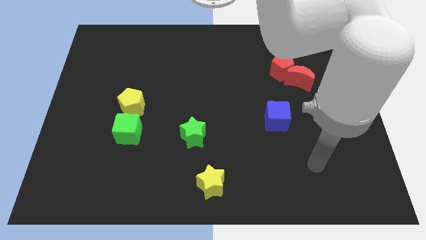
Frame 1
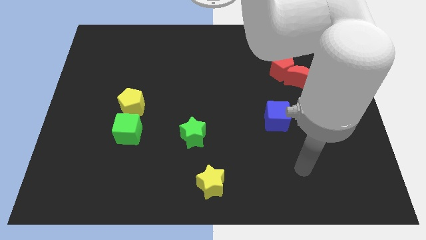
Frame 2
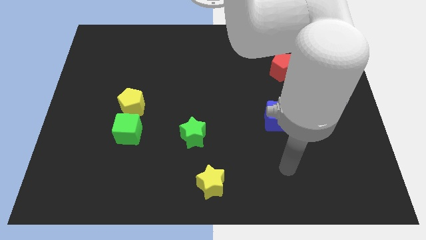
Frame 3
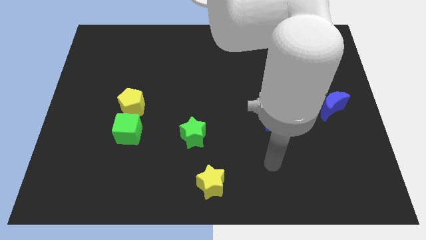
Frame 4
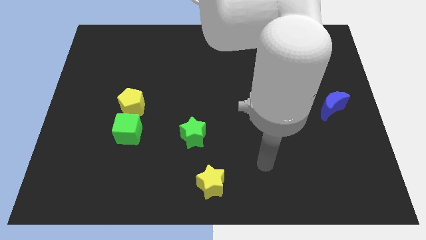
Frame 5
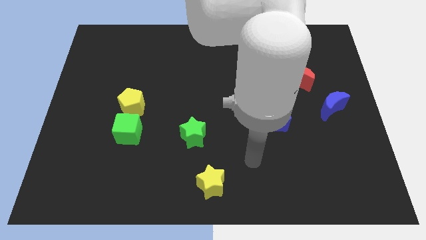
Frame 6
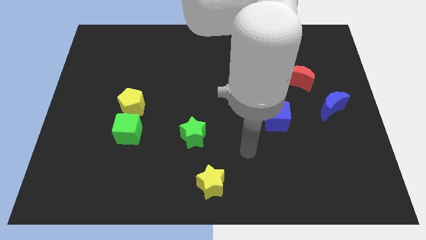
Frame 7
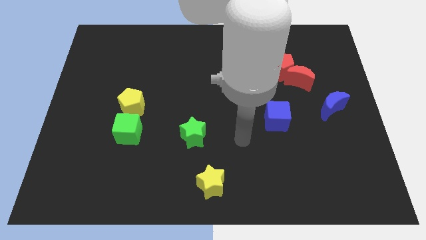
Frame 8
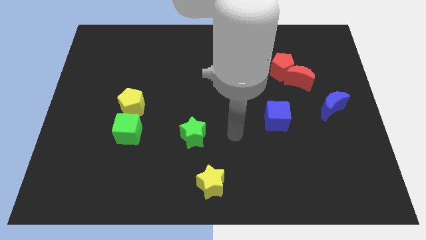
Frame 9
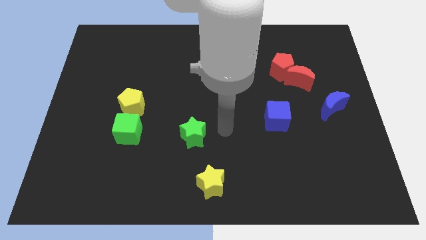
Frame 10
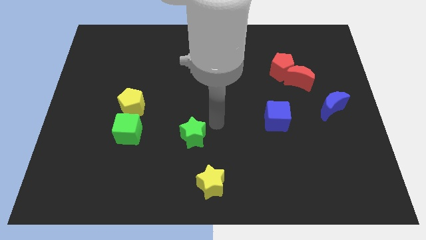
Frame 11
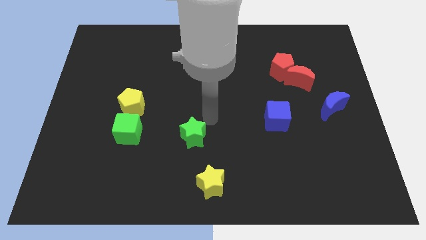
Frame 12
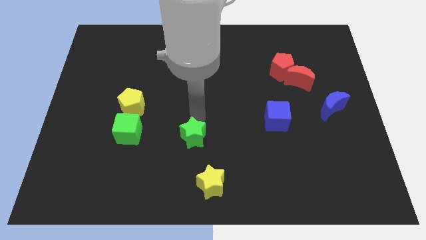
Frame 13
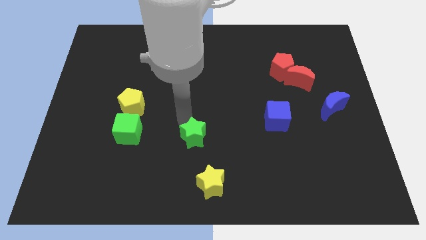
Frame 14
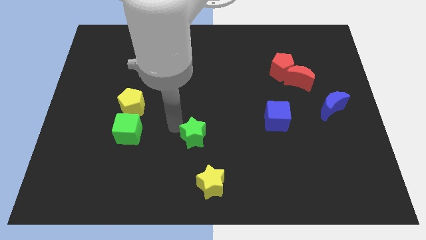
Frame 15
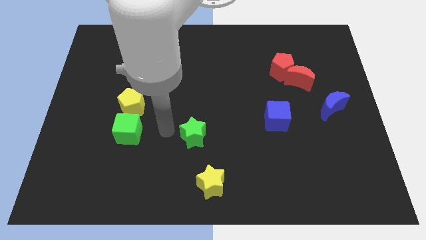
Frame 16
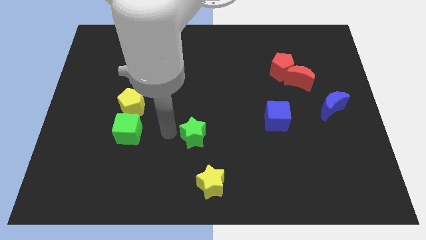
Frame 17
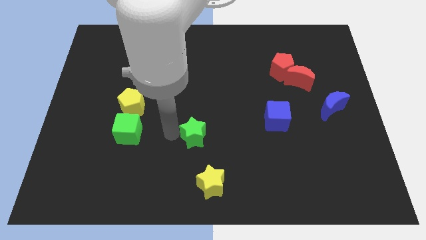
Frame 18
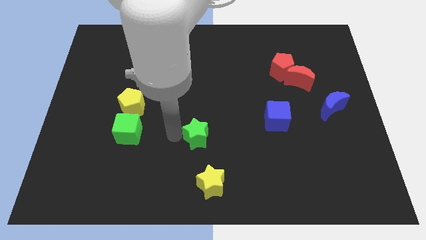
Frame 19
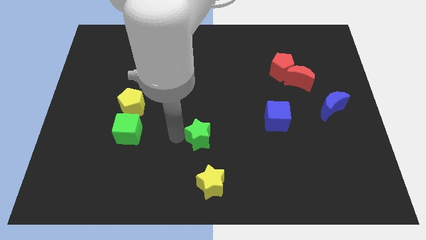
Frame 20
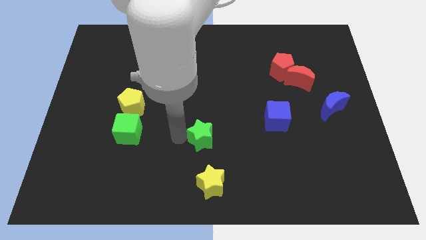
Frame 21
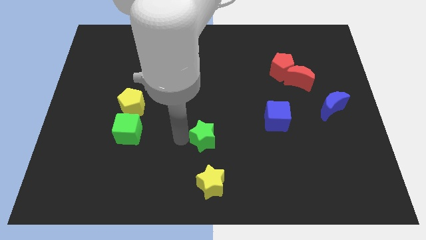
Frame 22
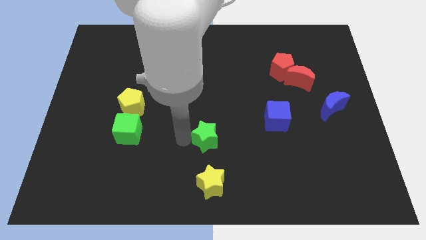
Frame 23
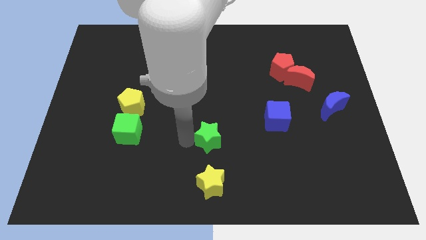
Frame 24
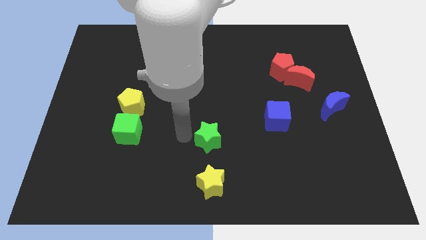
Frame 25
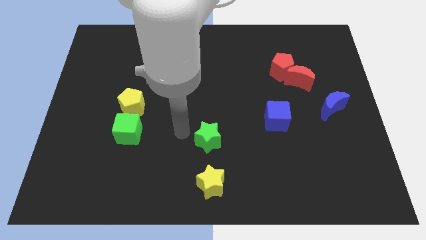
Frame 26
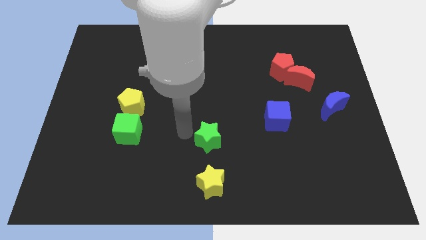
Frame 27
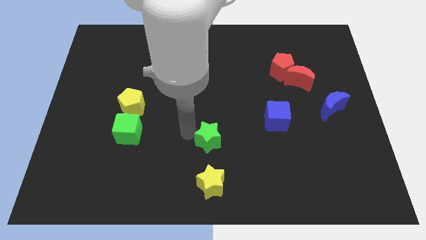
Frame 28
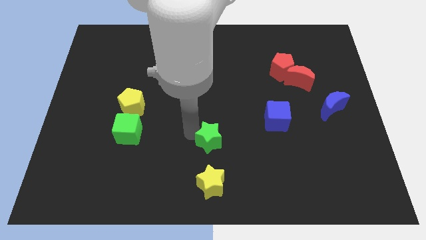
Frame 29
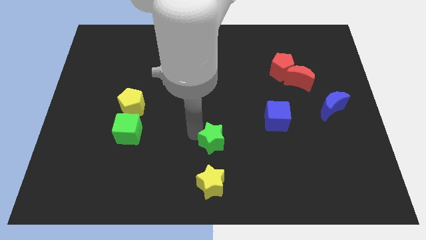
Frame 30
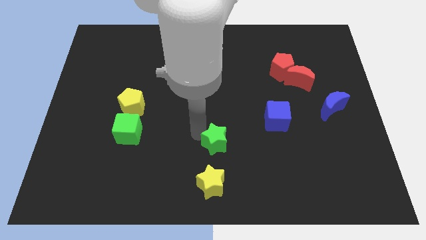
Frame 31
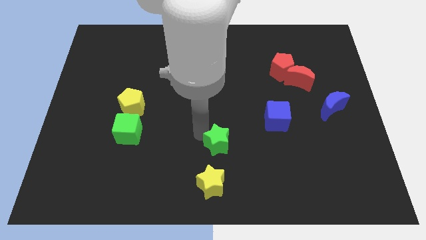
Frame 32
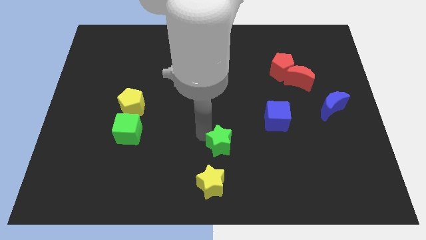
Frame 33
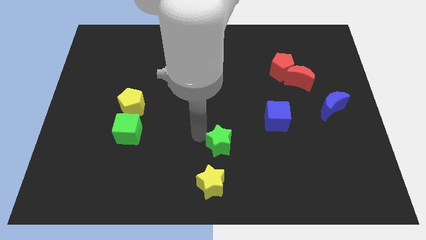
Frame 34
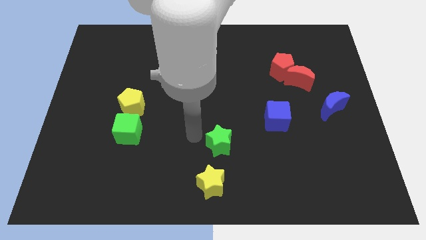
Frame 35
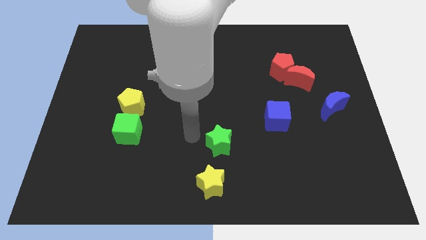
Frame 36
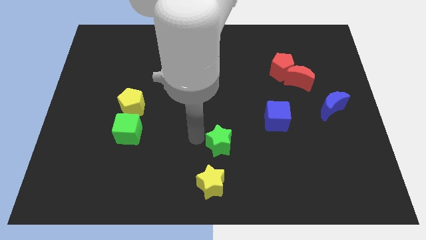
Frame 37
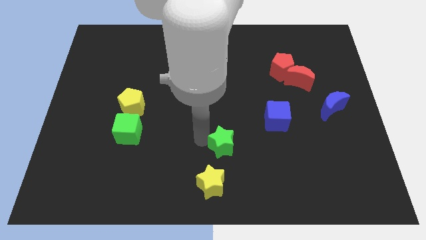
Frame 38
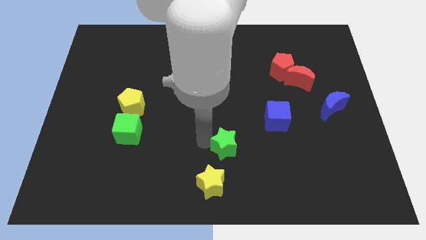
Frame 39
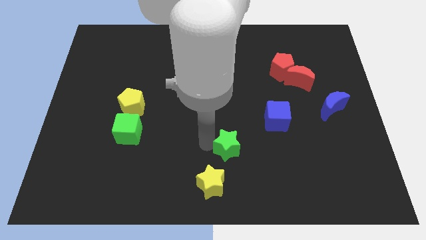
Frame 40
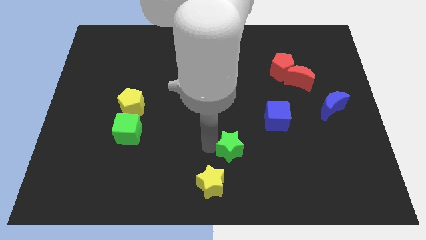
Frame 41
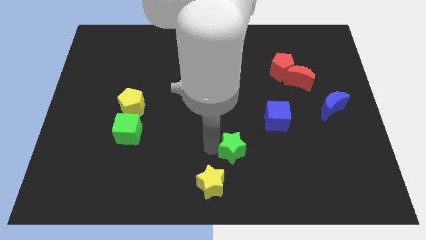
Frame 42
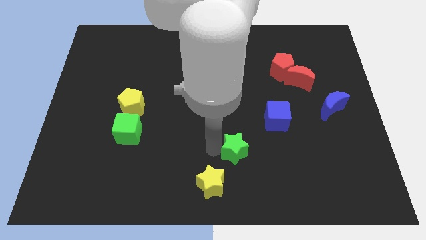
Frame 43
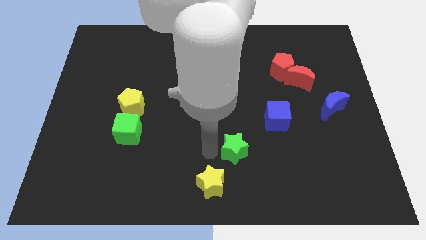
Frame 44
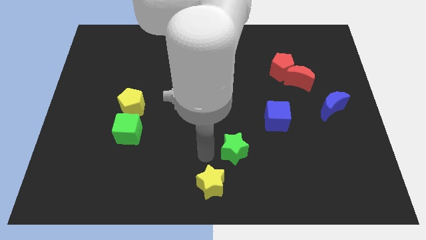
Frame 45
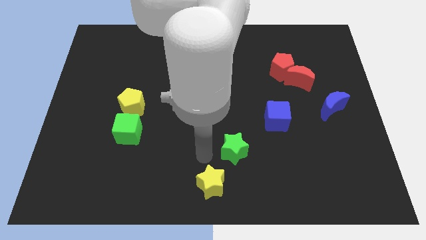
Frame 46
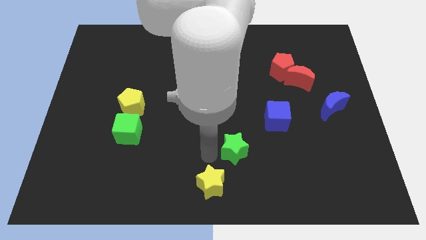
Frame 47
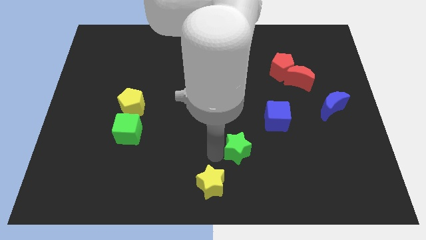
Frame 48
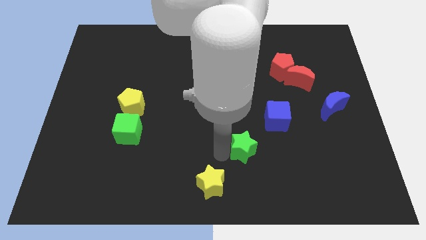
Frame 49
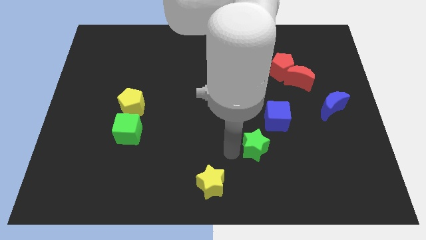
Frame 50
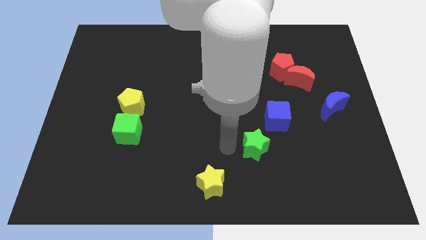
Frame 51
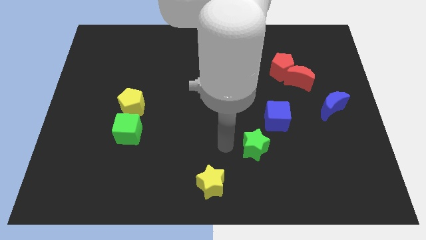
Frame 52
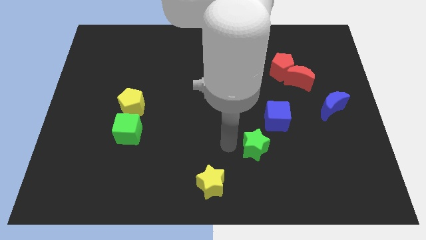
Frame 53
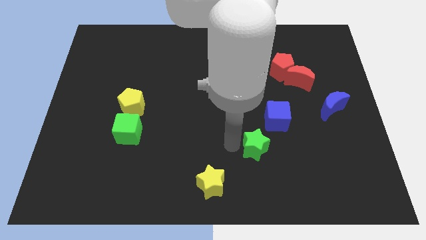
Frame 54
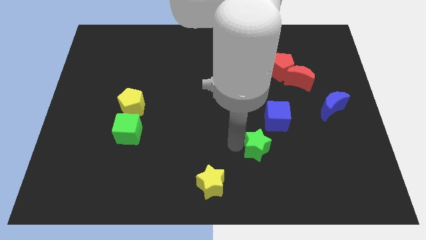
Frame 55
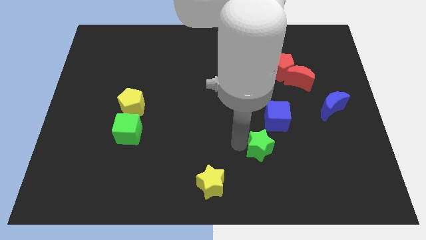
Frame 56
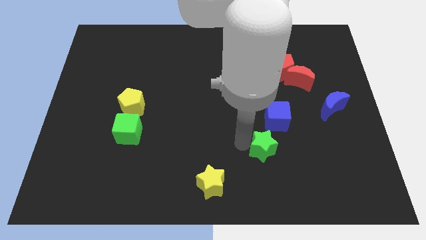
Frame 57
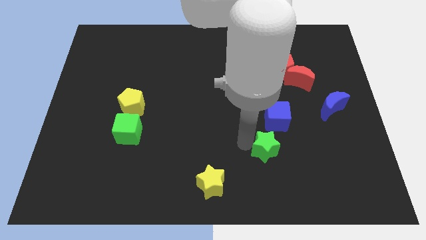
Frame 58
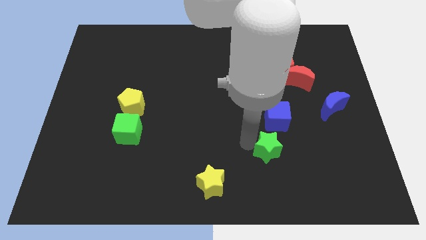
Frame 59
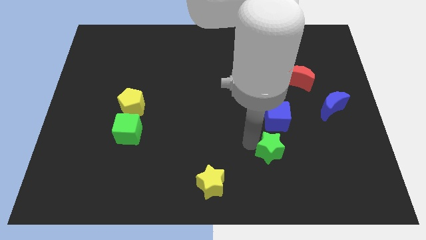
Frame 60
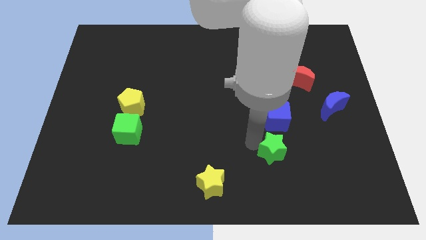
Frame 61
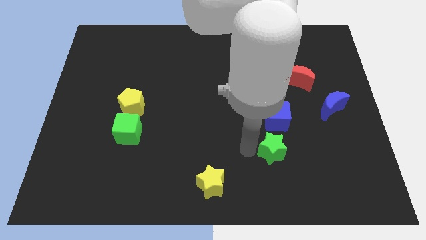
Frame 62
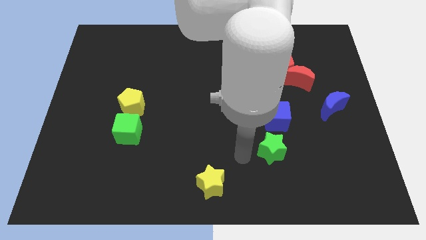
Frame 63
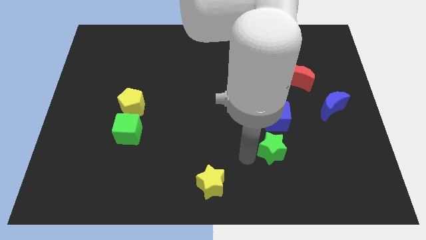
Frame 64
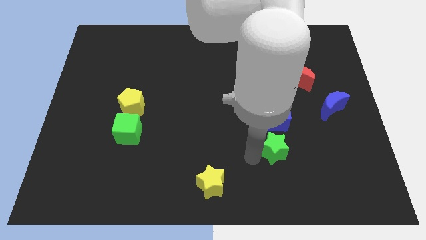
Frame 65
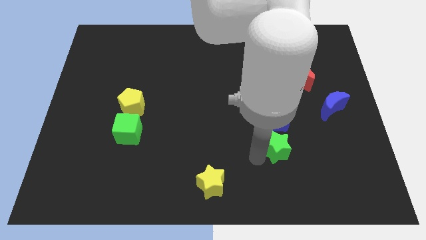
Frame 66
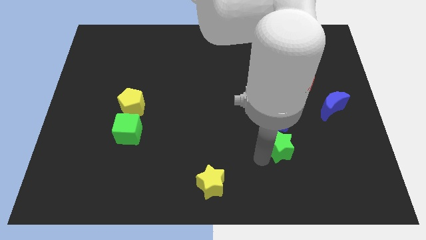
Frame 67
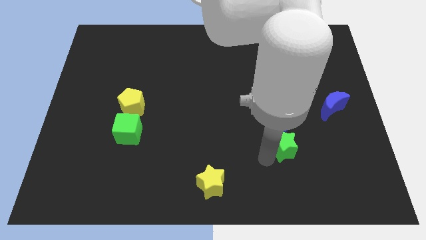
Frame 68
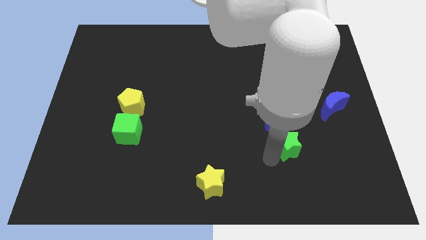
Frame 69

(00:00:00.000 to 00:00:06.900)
push the green star to the right

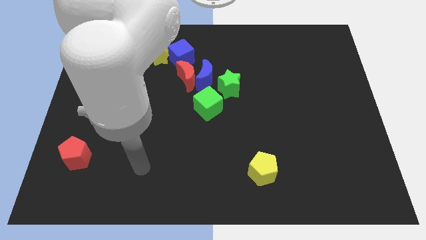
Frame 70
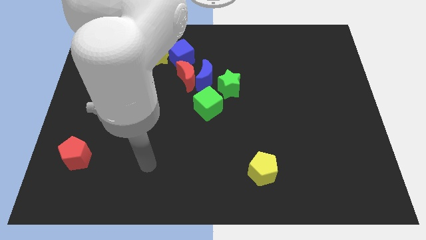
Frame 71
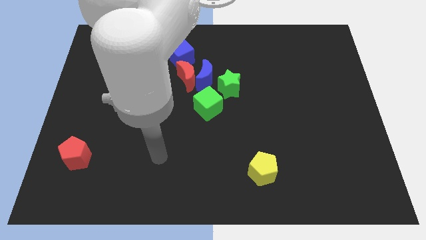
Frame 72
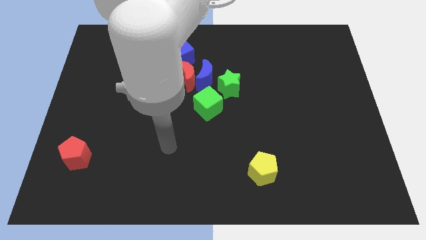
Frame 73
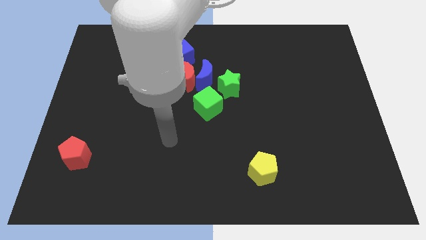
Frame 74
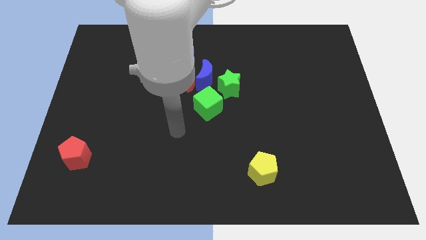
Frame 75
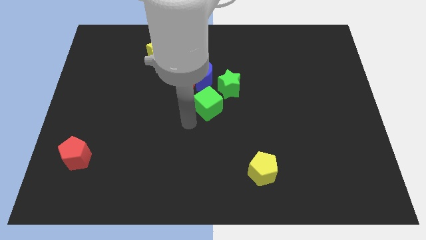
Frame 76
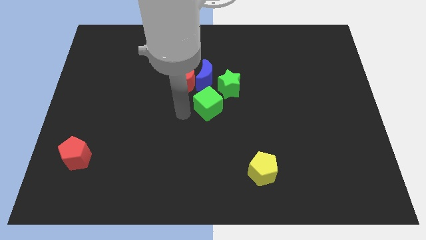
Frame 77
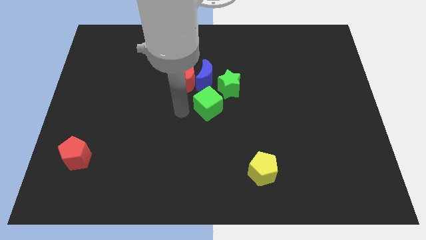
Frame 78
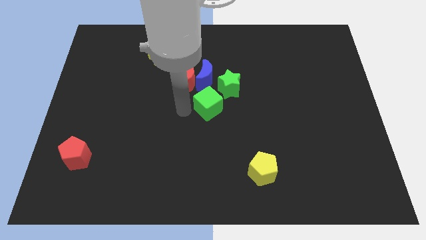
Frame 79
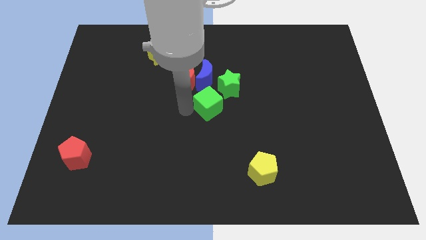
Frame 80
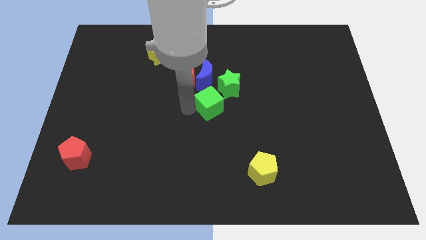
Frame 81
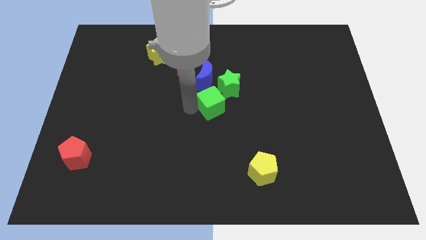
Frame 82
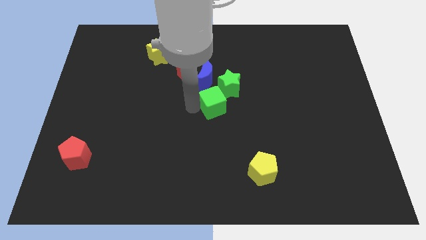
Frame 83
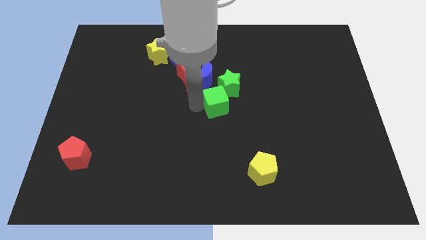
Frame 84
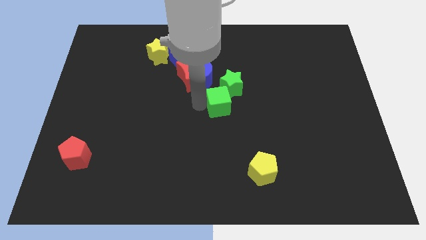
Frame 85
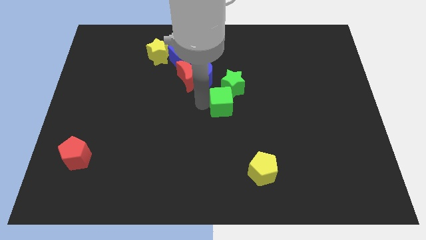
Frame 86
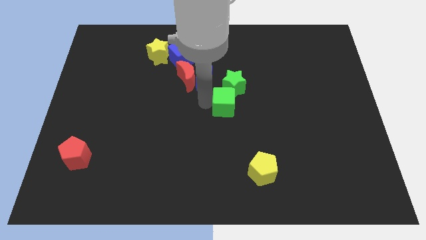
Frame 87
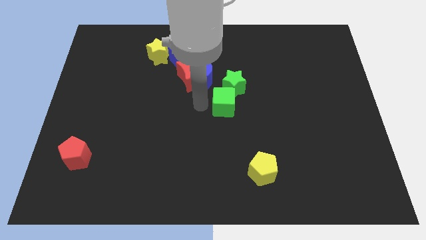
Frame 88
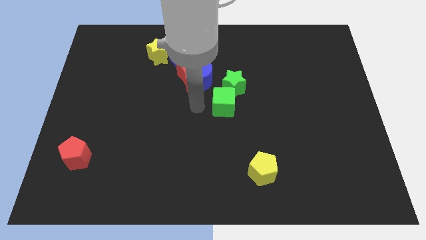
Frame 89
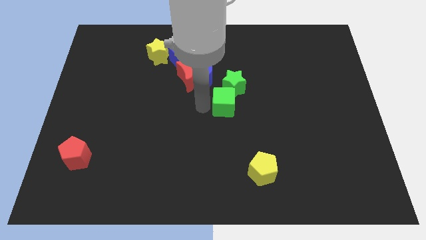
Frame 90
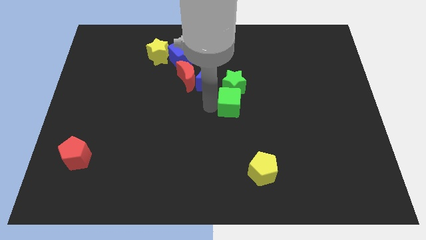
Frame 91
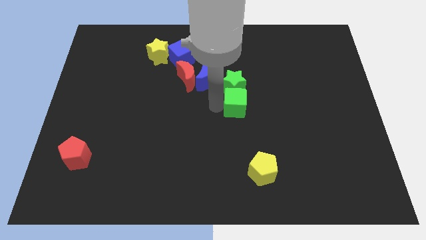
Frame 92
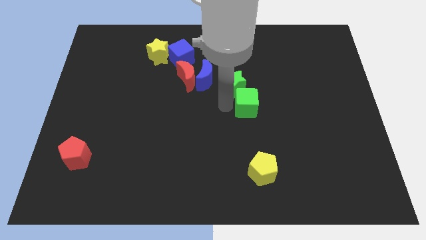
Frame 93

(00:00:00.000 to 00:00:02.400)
push the green cube a little to the right
